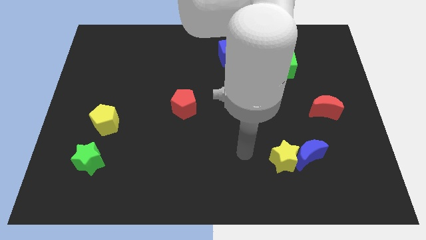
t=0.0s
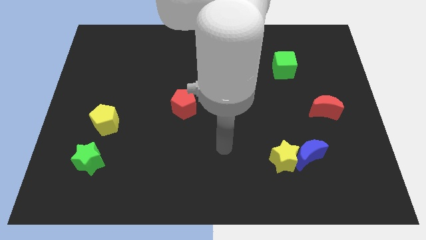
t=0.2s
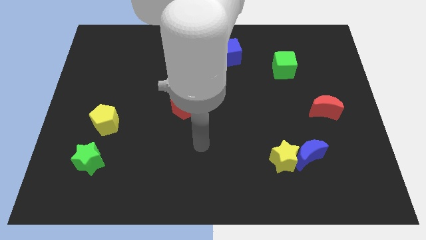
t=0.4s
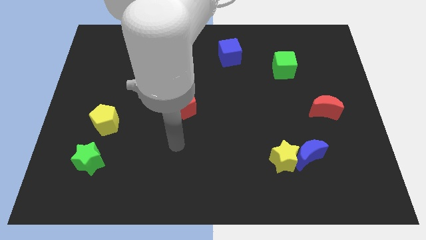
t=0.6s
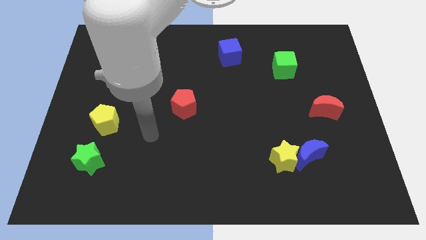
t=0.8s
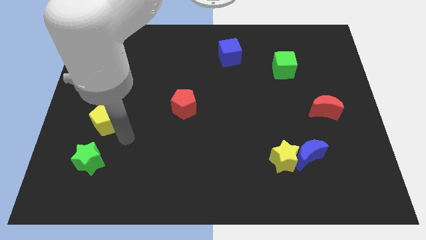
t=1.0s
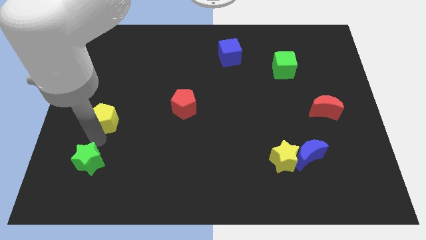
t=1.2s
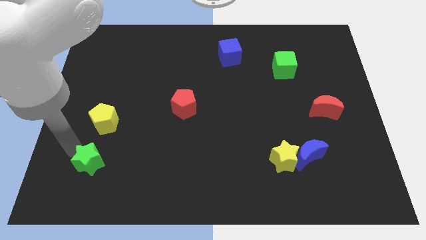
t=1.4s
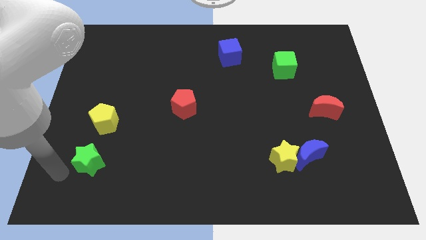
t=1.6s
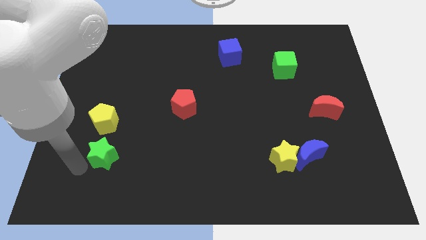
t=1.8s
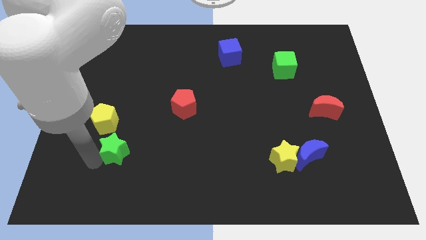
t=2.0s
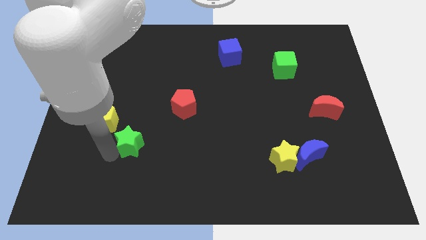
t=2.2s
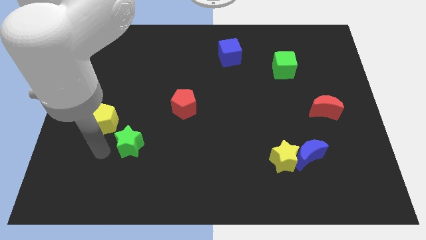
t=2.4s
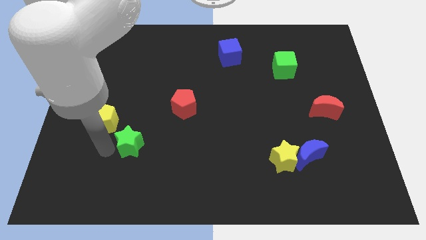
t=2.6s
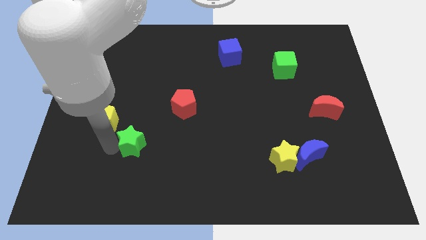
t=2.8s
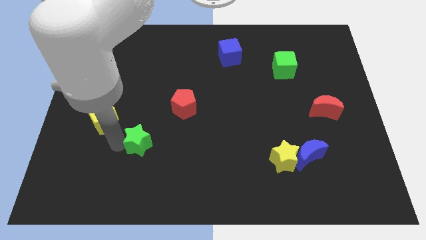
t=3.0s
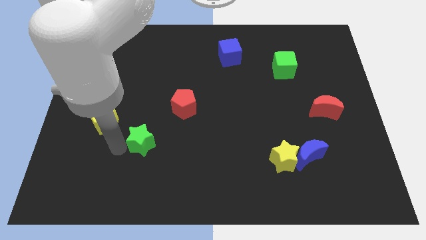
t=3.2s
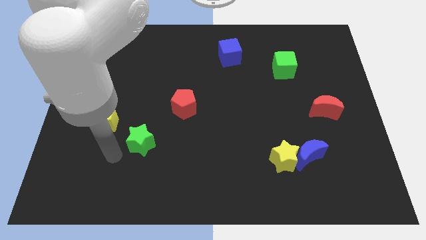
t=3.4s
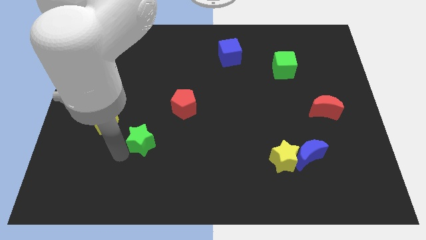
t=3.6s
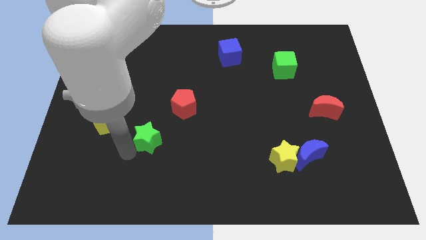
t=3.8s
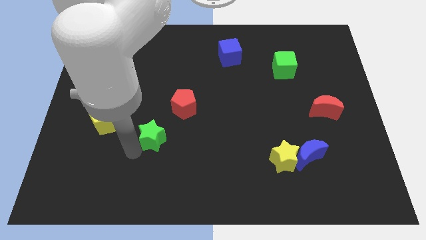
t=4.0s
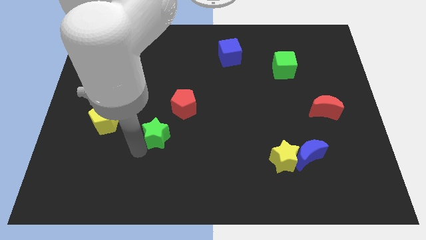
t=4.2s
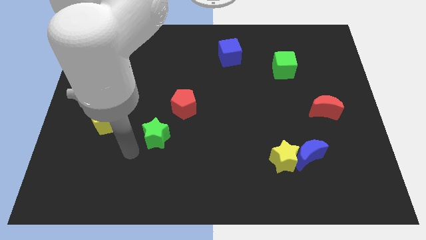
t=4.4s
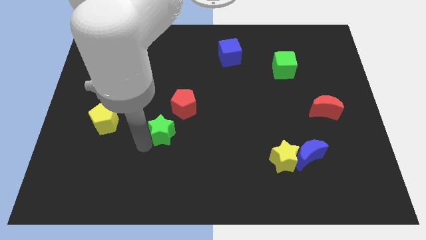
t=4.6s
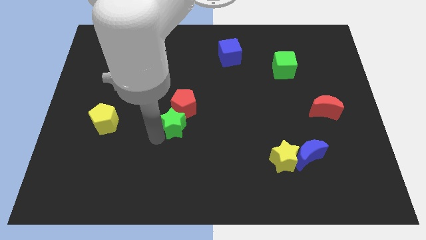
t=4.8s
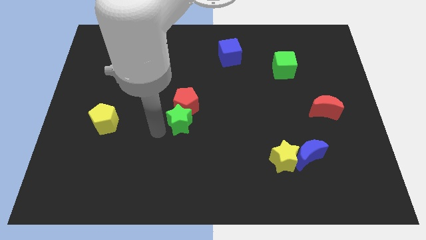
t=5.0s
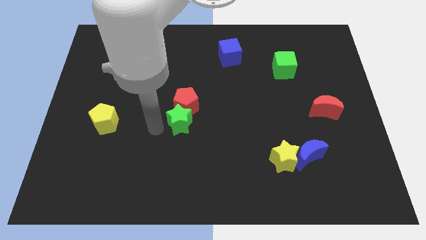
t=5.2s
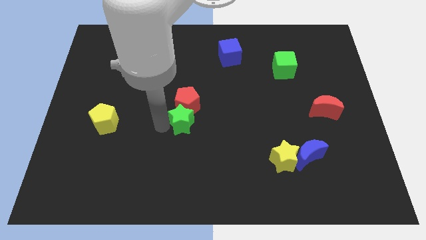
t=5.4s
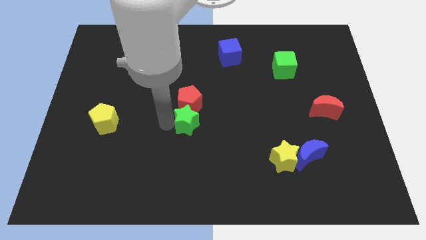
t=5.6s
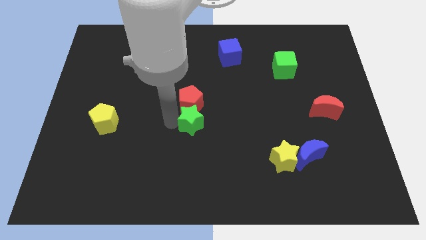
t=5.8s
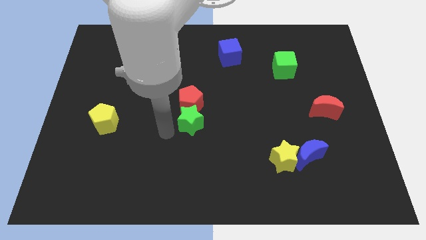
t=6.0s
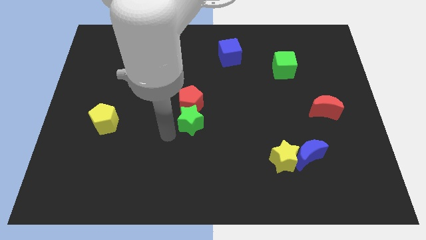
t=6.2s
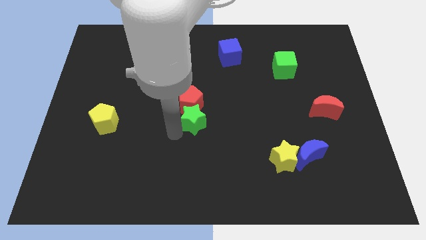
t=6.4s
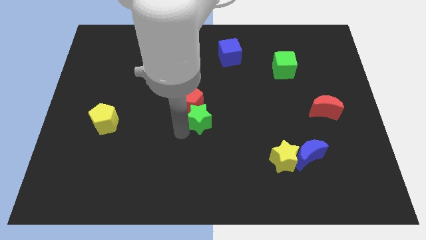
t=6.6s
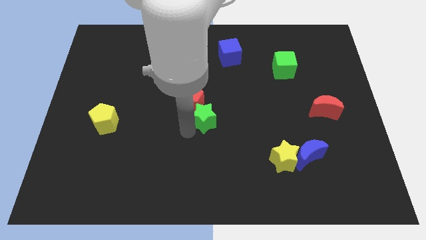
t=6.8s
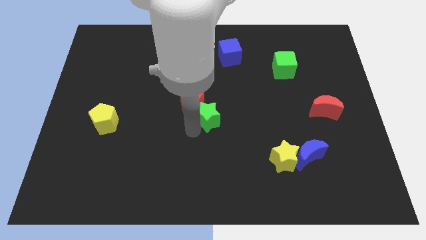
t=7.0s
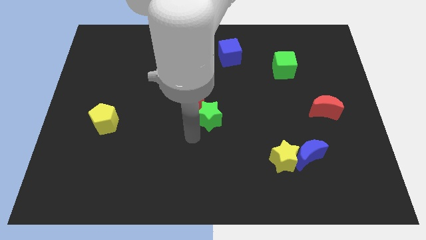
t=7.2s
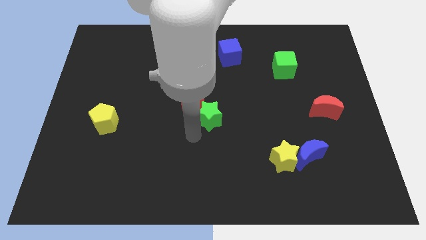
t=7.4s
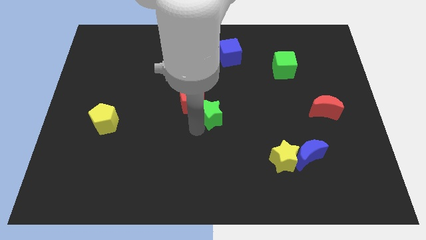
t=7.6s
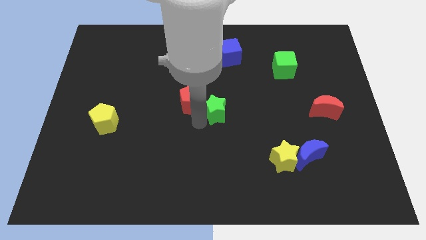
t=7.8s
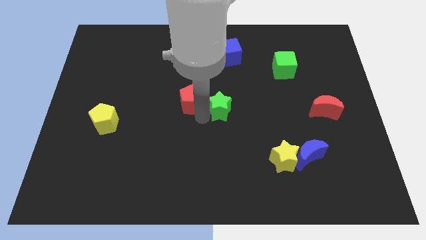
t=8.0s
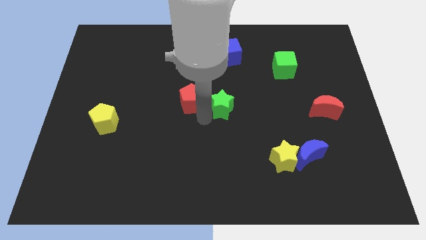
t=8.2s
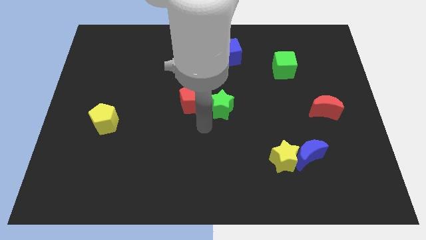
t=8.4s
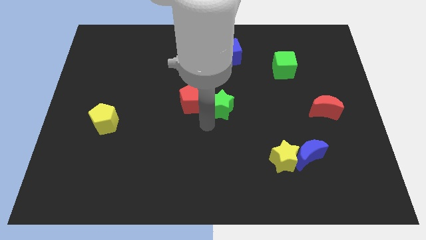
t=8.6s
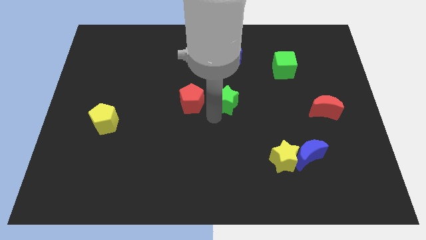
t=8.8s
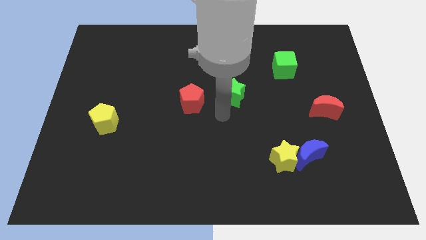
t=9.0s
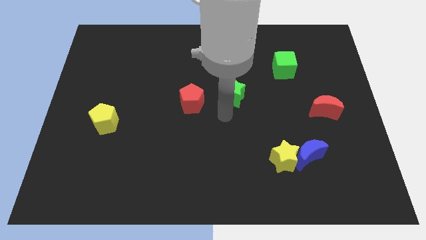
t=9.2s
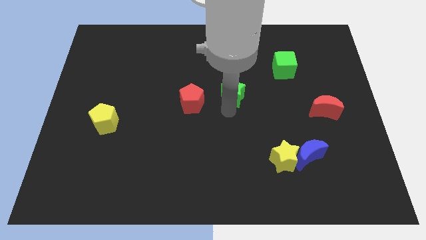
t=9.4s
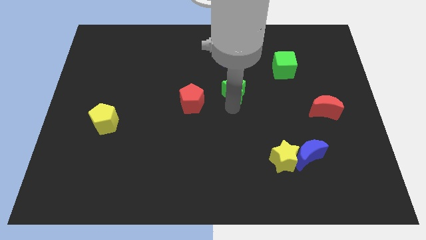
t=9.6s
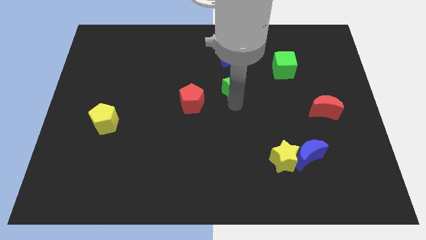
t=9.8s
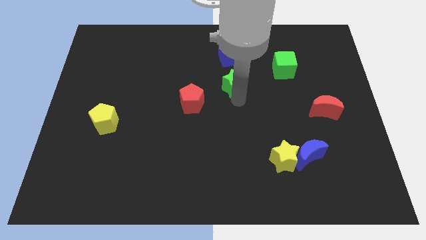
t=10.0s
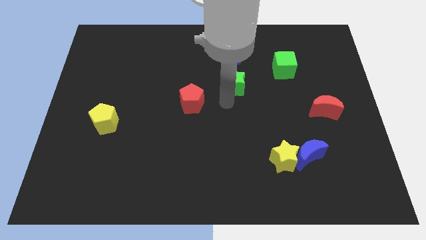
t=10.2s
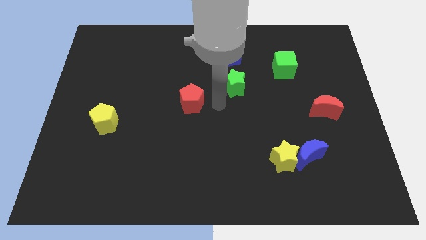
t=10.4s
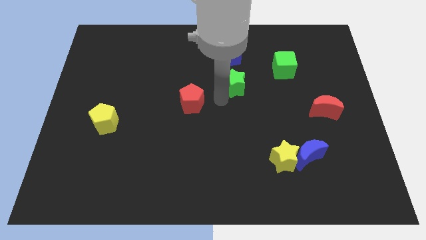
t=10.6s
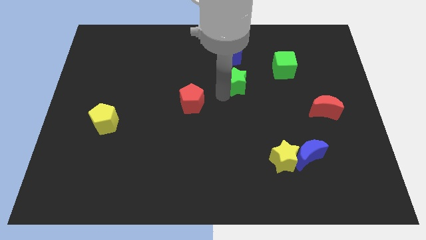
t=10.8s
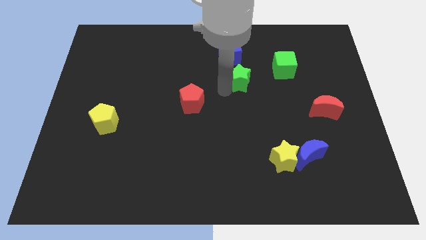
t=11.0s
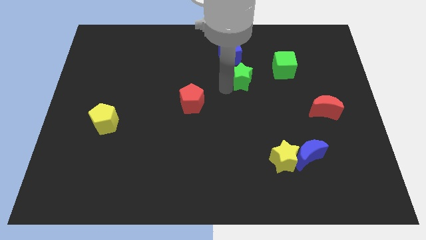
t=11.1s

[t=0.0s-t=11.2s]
put the green star to the bottom right of the blue cube
